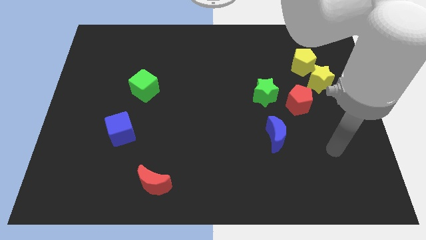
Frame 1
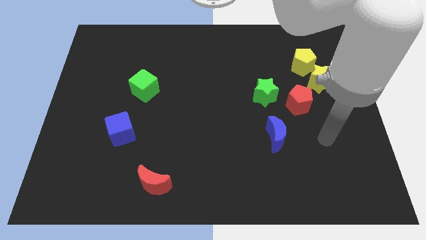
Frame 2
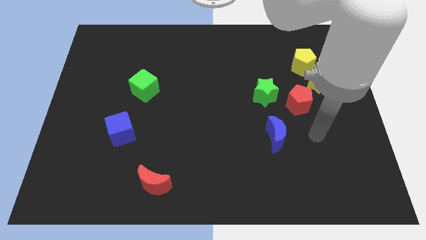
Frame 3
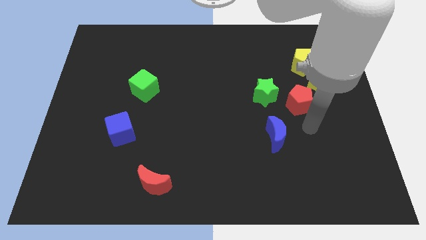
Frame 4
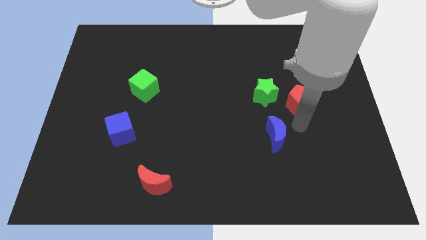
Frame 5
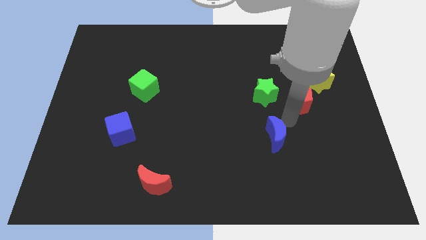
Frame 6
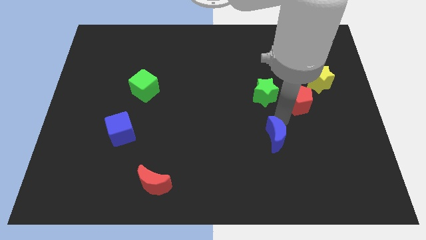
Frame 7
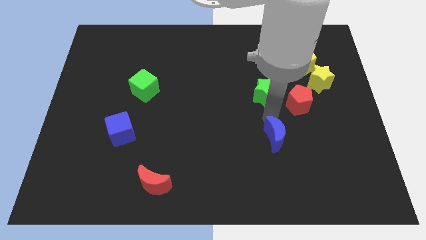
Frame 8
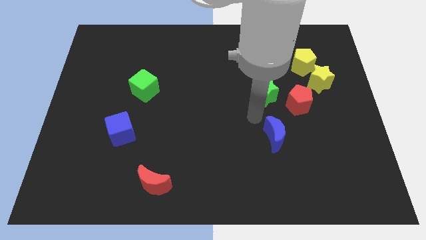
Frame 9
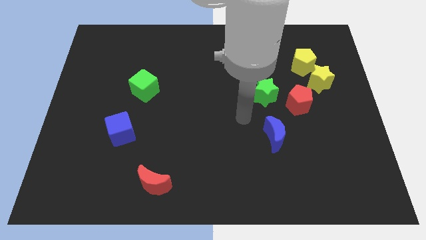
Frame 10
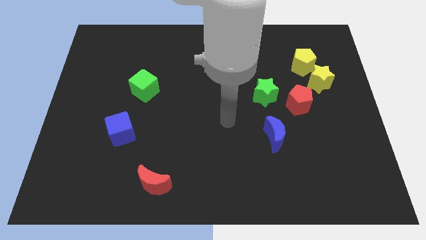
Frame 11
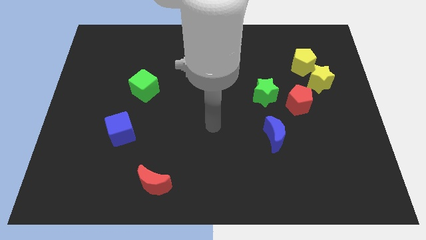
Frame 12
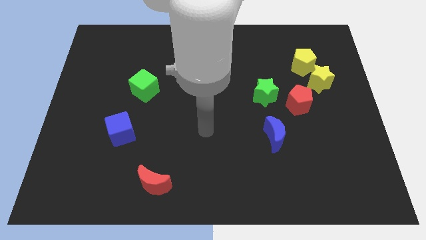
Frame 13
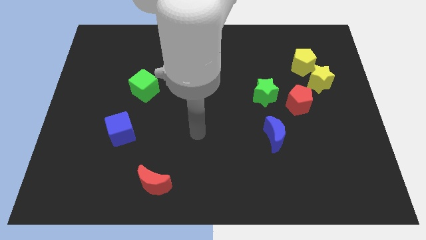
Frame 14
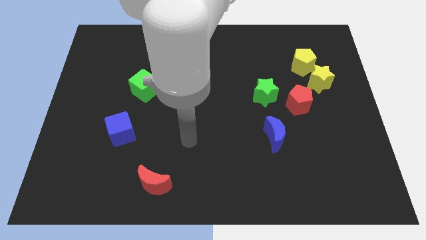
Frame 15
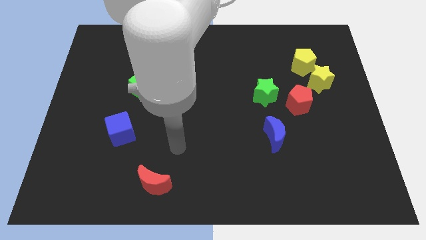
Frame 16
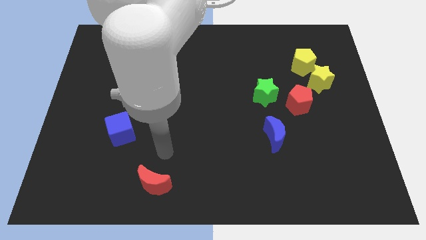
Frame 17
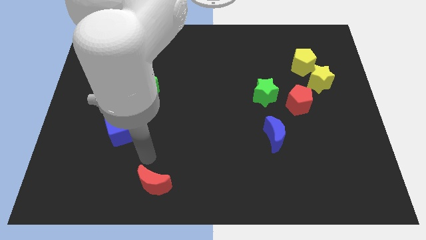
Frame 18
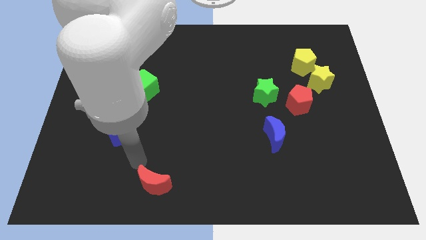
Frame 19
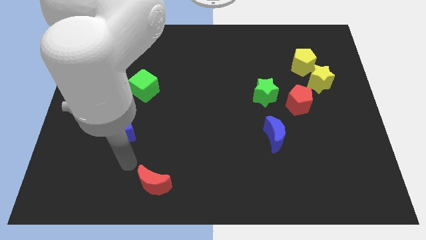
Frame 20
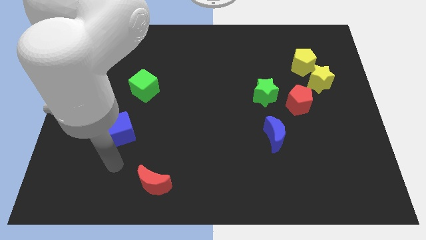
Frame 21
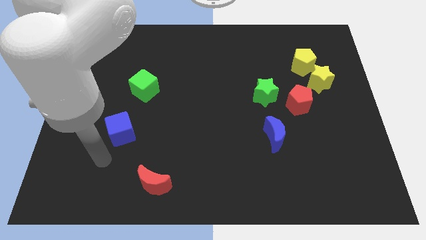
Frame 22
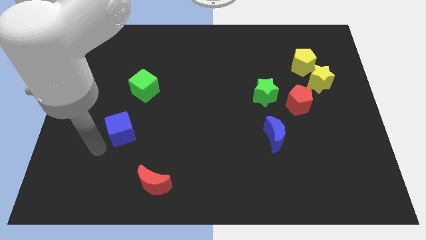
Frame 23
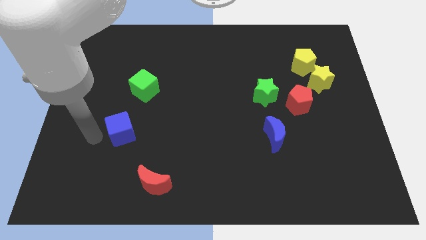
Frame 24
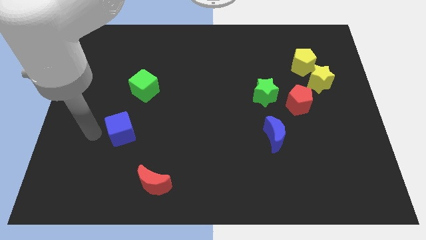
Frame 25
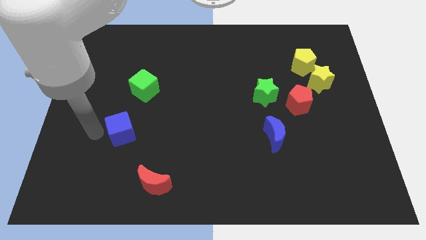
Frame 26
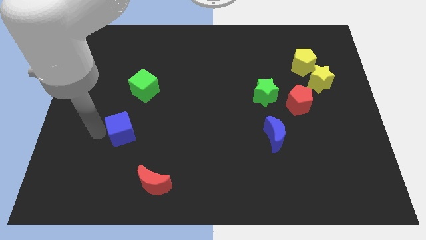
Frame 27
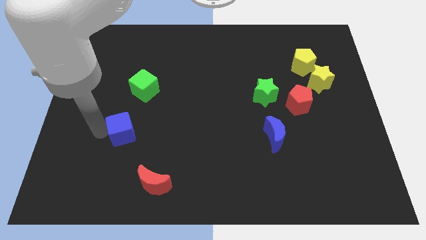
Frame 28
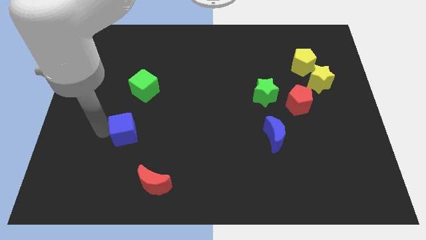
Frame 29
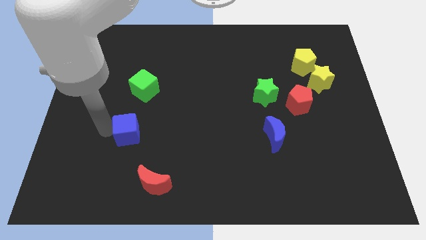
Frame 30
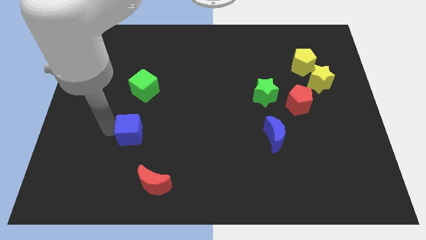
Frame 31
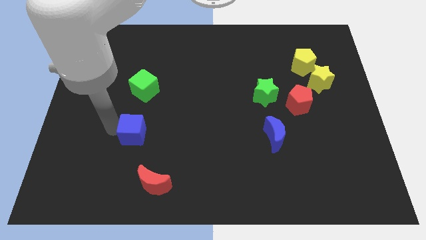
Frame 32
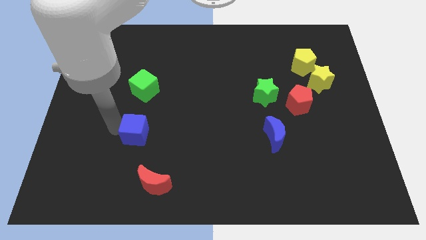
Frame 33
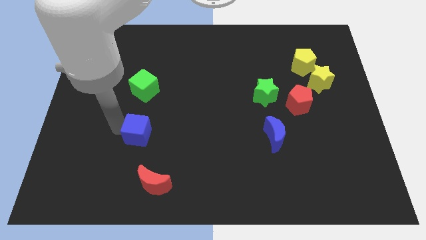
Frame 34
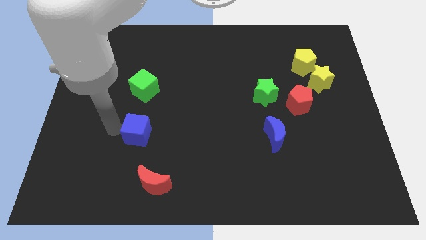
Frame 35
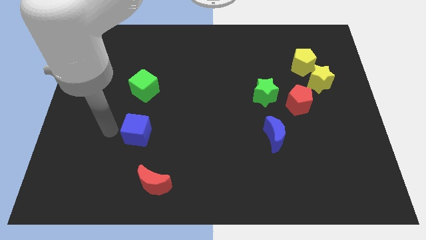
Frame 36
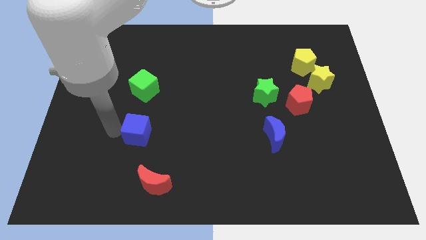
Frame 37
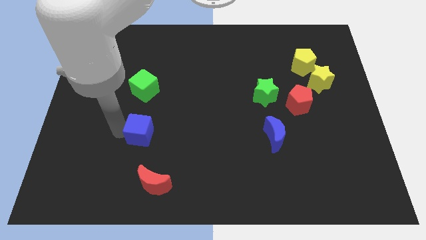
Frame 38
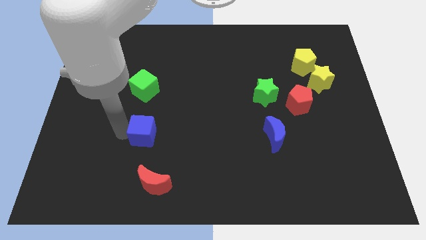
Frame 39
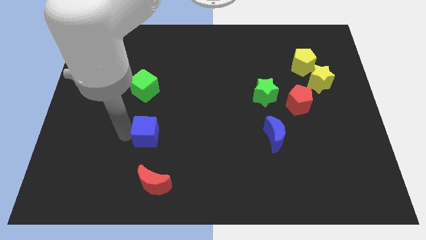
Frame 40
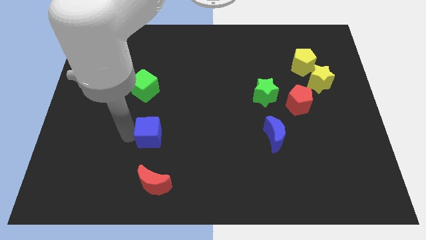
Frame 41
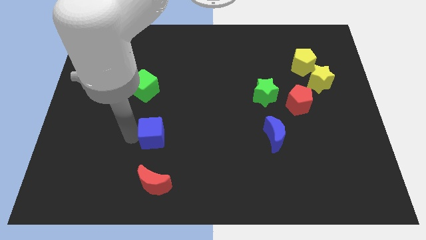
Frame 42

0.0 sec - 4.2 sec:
move the blue cube somewhat right

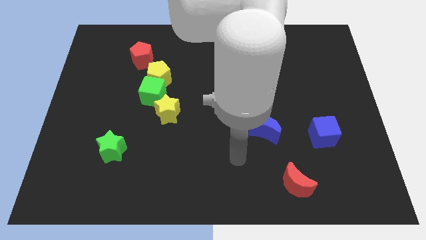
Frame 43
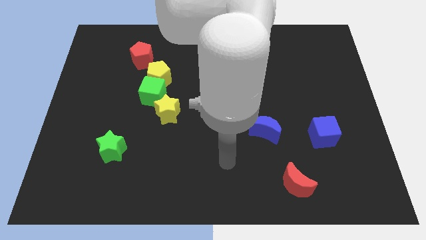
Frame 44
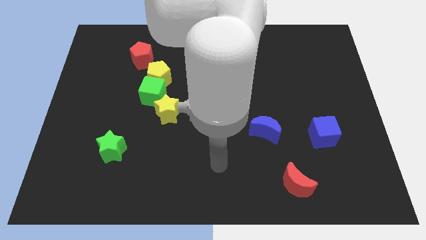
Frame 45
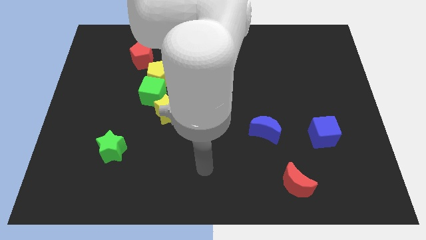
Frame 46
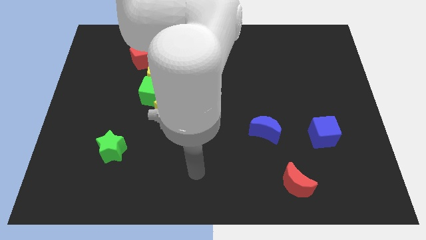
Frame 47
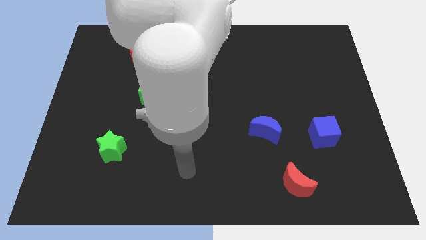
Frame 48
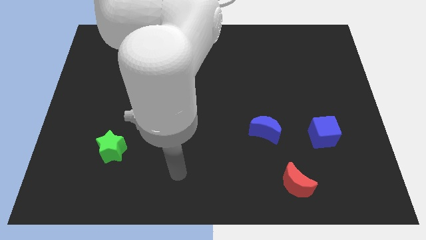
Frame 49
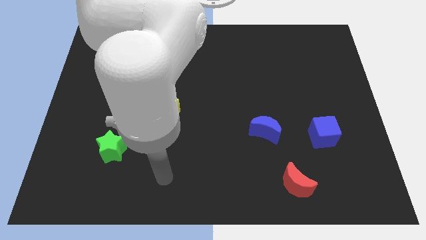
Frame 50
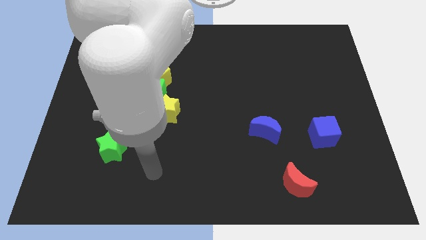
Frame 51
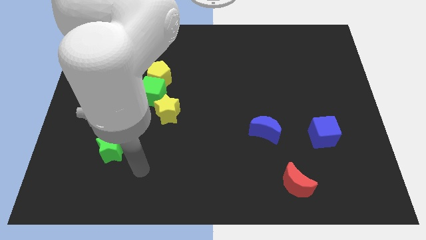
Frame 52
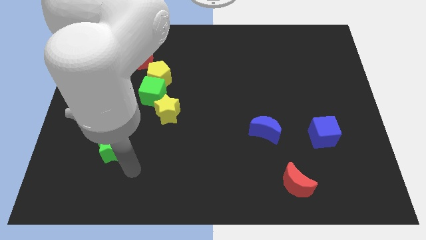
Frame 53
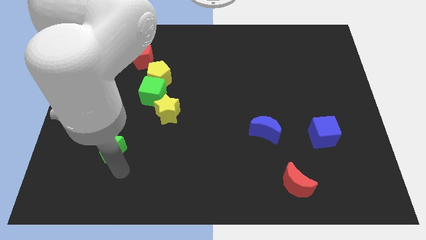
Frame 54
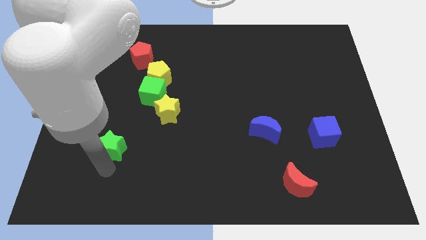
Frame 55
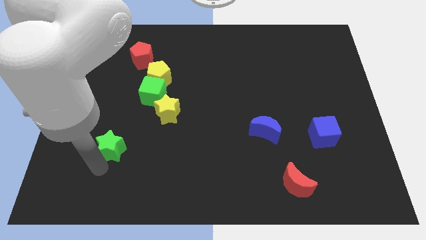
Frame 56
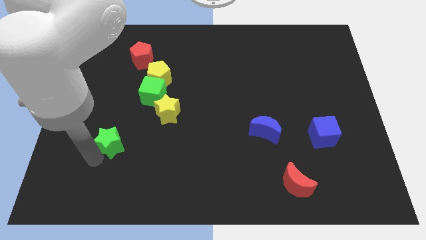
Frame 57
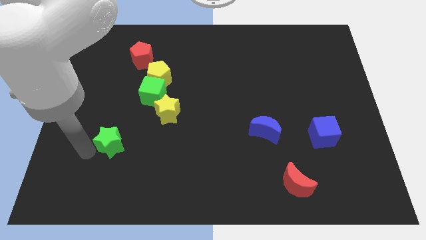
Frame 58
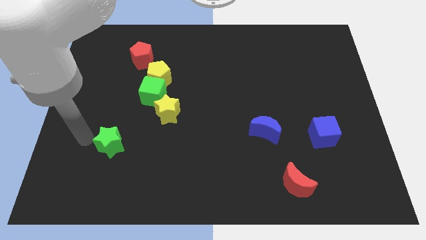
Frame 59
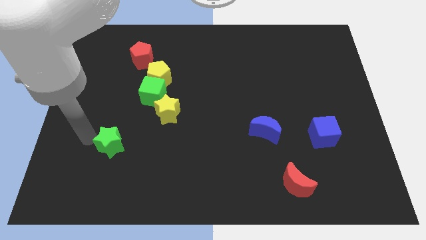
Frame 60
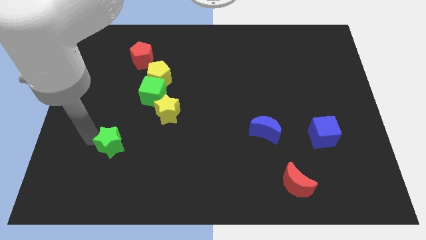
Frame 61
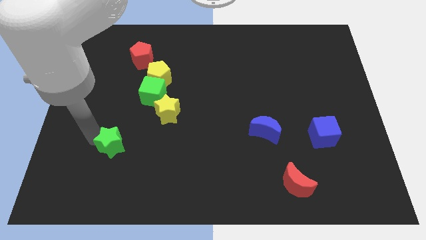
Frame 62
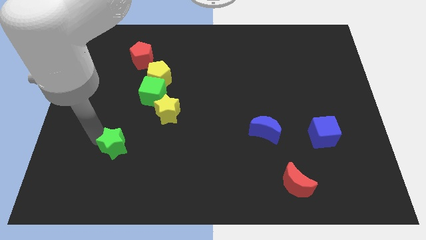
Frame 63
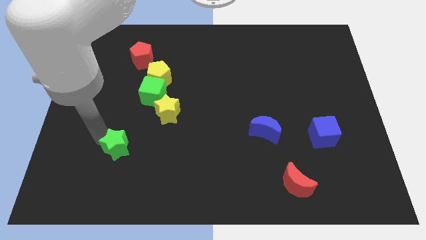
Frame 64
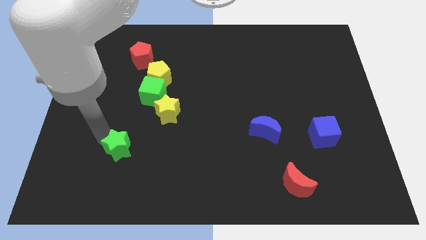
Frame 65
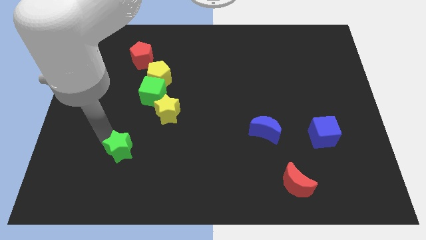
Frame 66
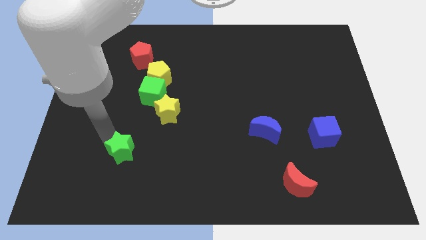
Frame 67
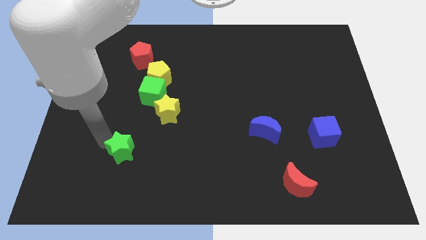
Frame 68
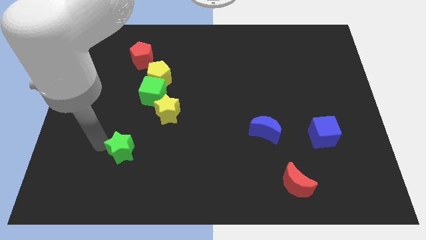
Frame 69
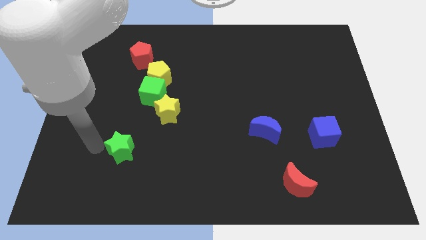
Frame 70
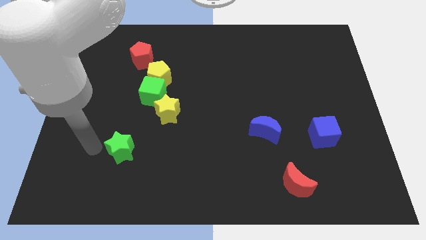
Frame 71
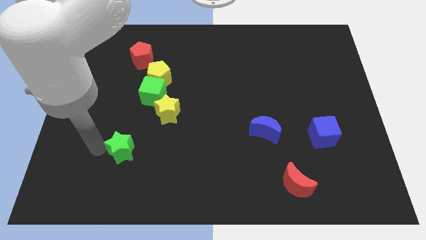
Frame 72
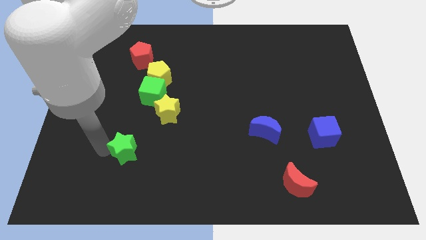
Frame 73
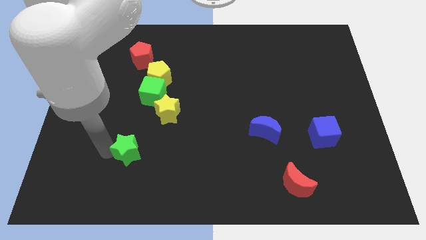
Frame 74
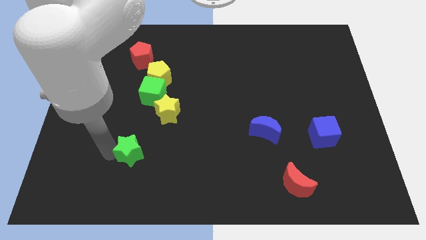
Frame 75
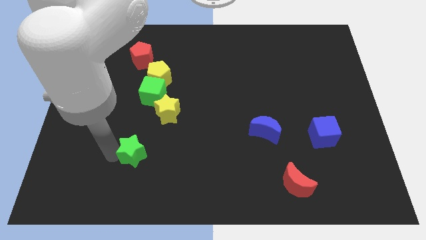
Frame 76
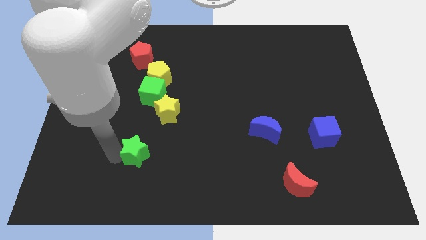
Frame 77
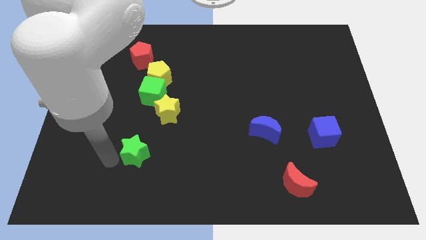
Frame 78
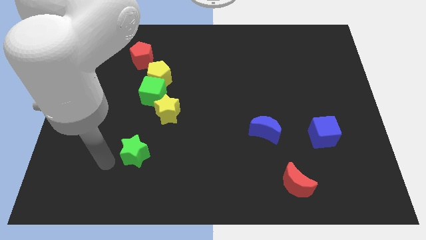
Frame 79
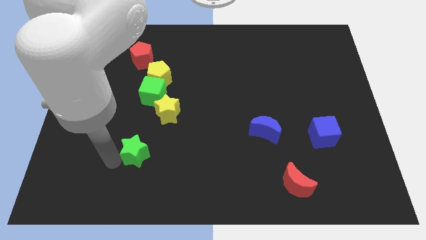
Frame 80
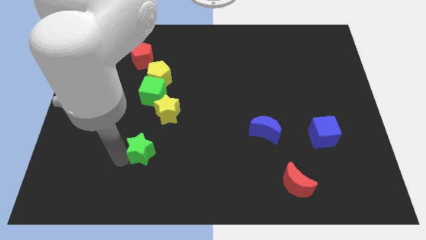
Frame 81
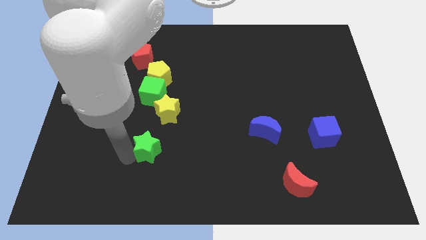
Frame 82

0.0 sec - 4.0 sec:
push the green star slightly right
